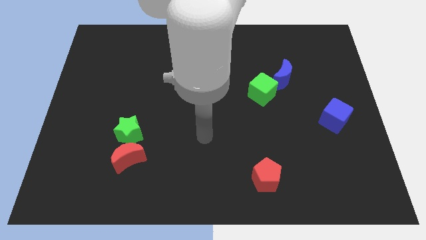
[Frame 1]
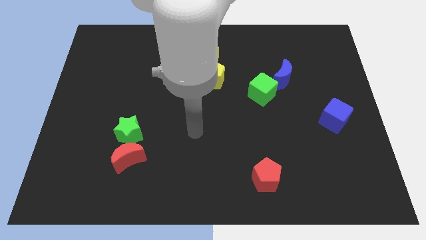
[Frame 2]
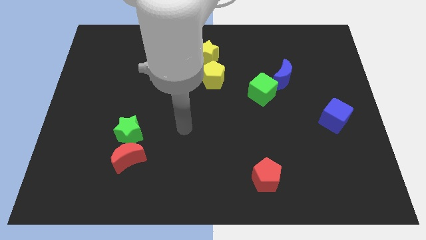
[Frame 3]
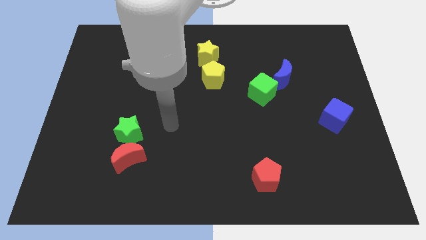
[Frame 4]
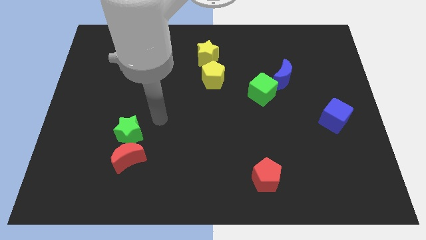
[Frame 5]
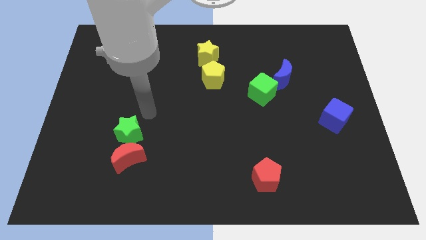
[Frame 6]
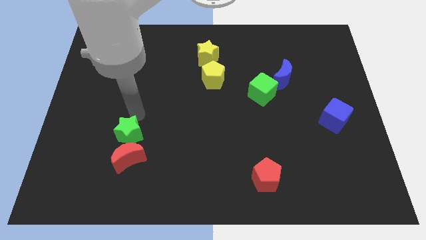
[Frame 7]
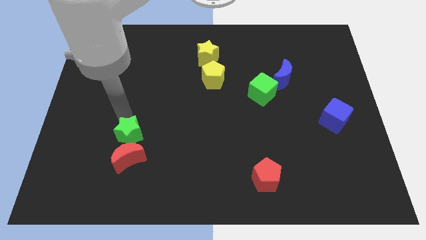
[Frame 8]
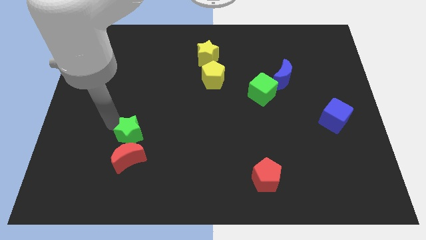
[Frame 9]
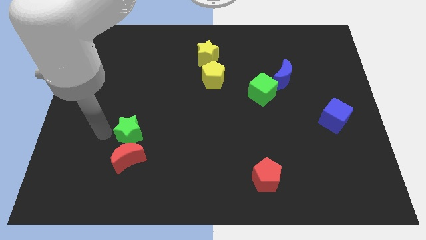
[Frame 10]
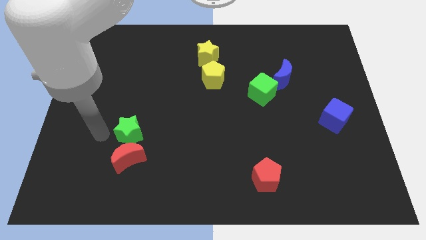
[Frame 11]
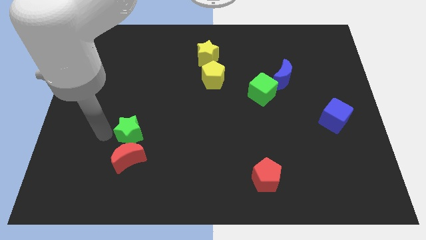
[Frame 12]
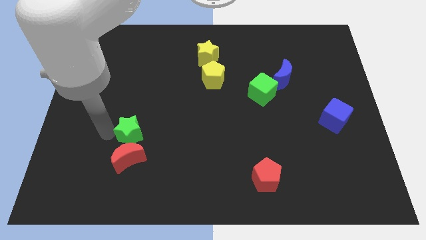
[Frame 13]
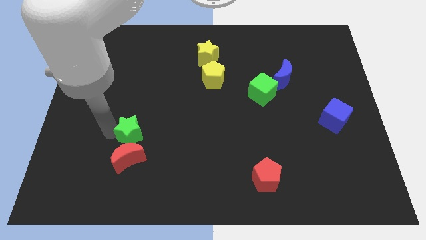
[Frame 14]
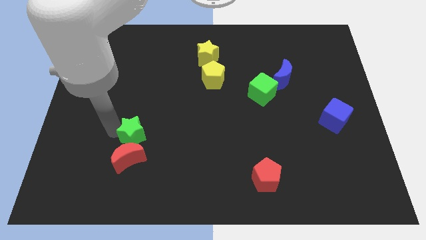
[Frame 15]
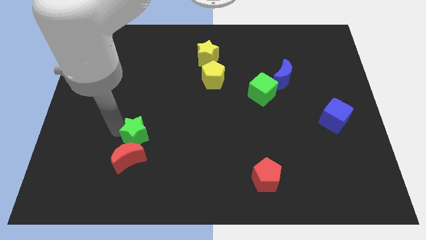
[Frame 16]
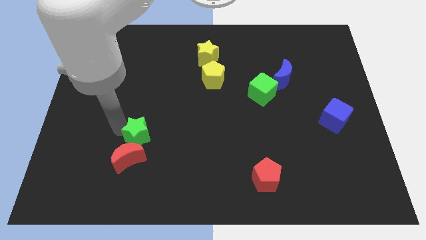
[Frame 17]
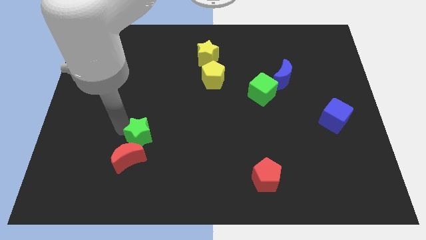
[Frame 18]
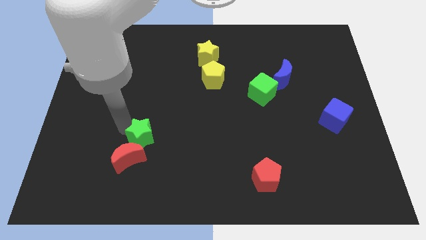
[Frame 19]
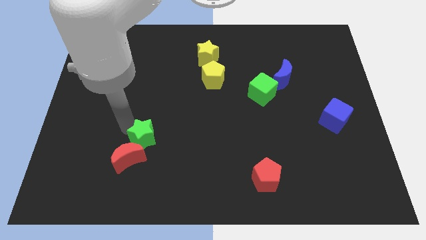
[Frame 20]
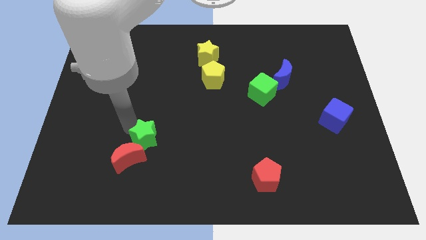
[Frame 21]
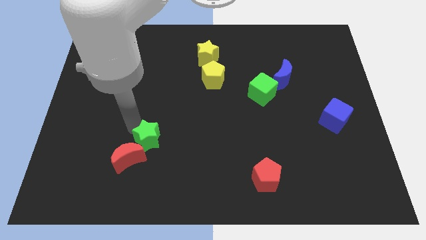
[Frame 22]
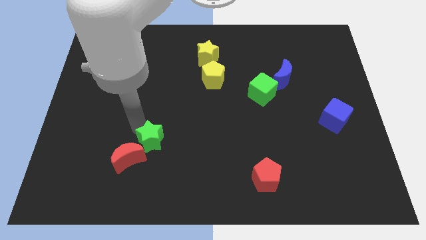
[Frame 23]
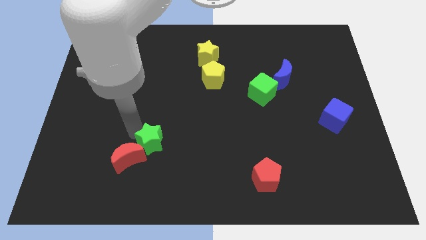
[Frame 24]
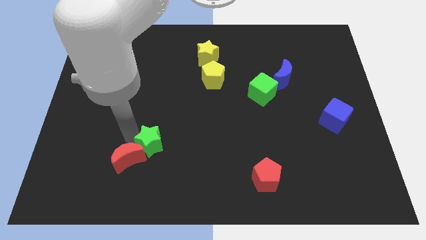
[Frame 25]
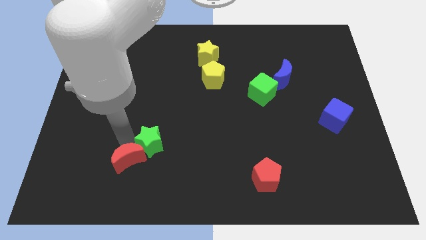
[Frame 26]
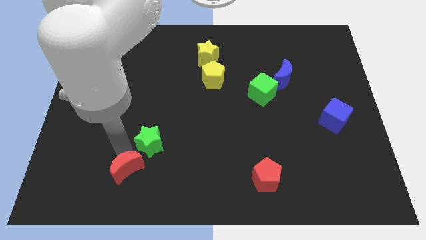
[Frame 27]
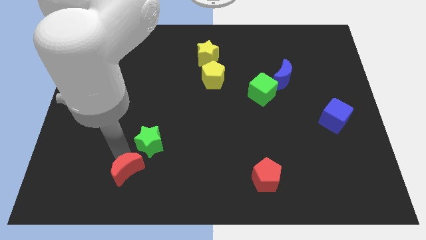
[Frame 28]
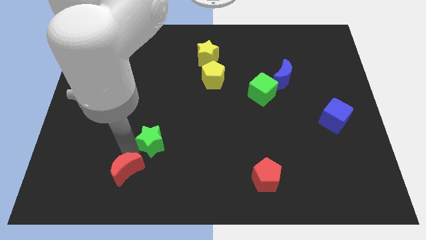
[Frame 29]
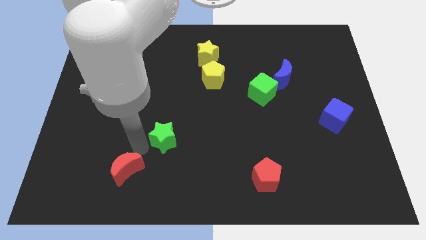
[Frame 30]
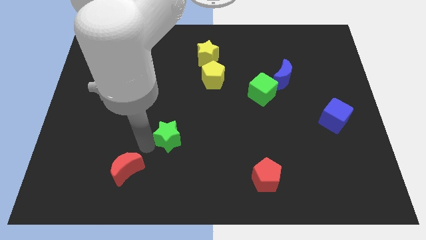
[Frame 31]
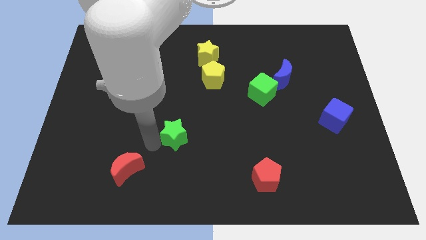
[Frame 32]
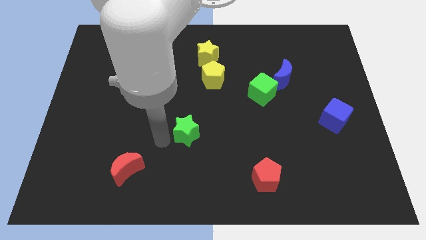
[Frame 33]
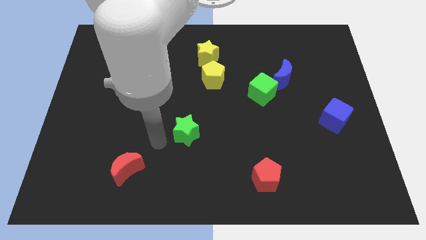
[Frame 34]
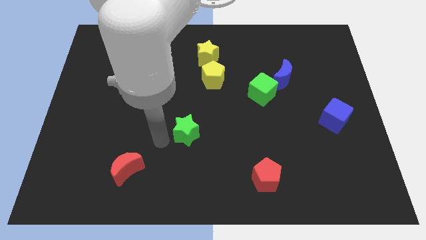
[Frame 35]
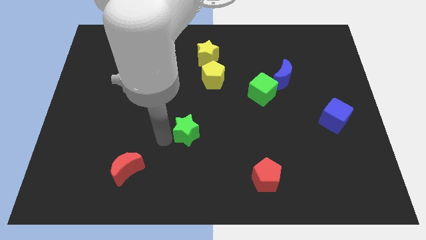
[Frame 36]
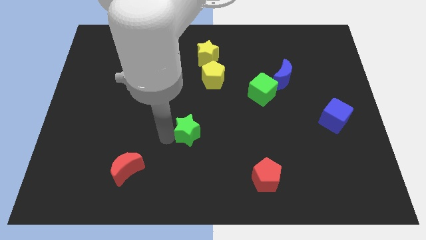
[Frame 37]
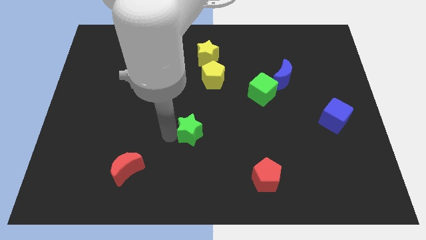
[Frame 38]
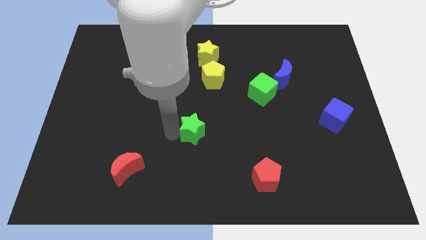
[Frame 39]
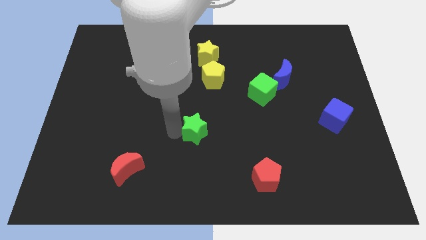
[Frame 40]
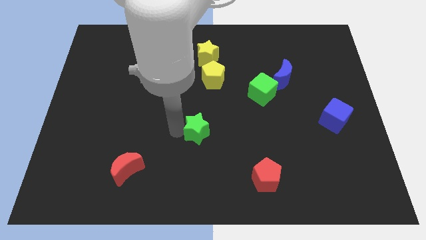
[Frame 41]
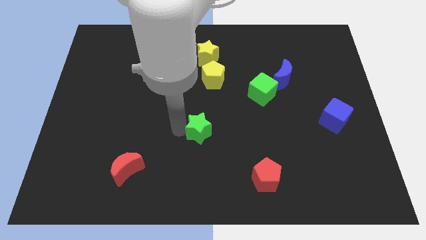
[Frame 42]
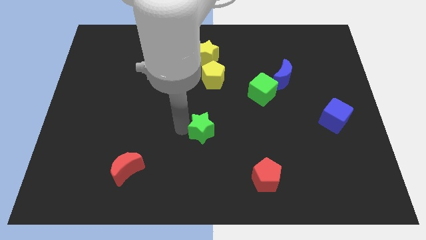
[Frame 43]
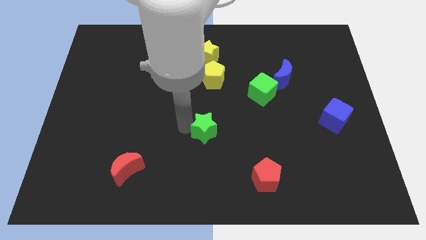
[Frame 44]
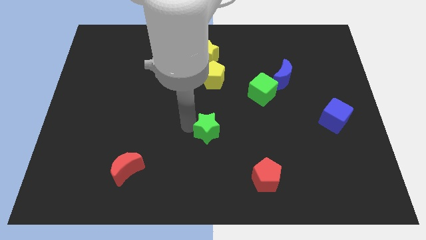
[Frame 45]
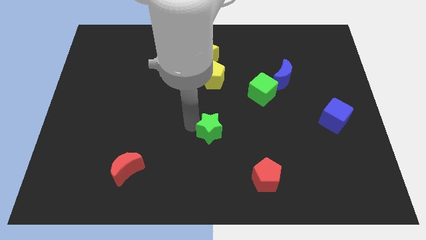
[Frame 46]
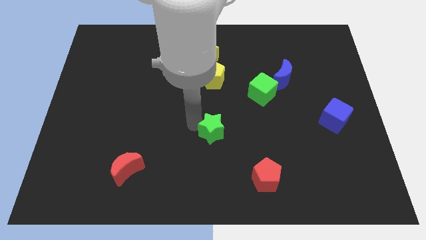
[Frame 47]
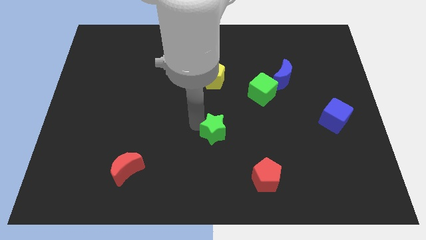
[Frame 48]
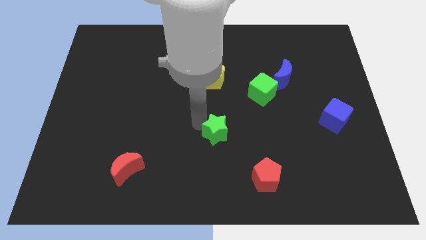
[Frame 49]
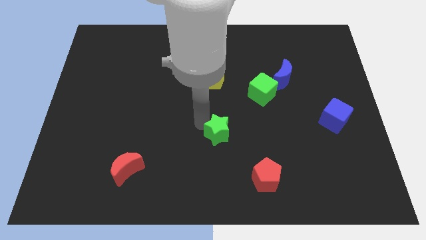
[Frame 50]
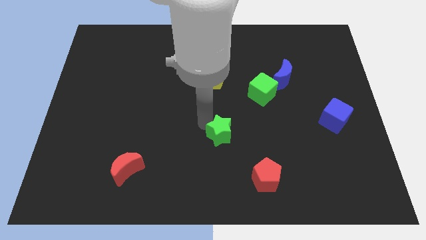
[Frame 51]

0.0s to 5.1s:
push the green star right

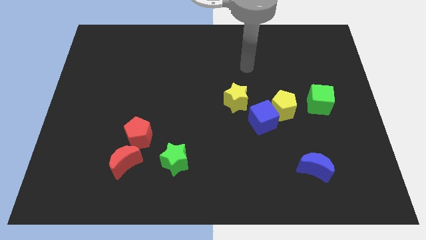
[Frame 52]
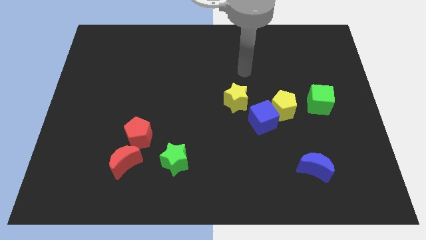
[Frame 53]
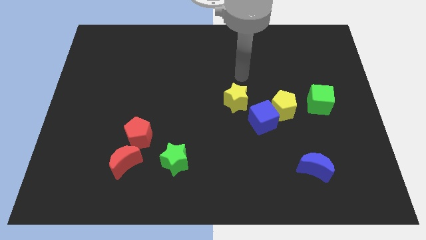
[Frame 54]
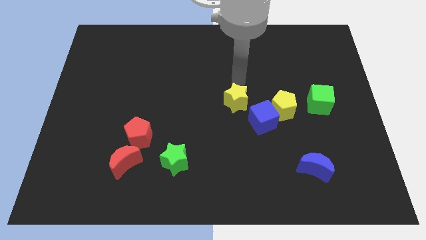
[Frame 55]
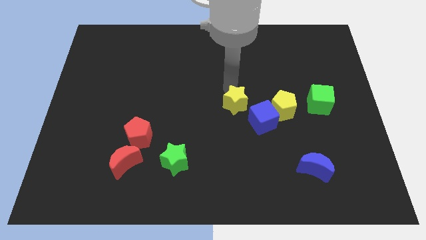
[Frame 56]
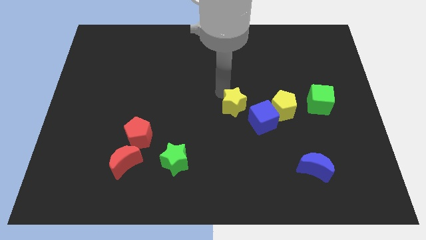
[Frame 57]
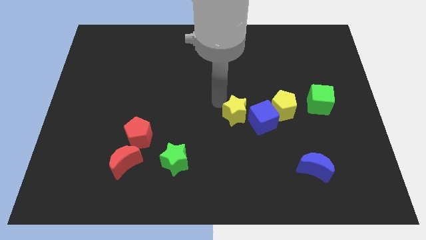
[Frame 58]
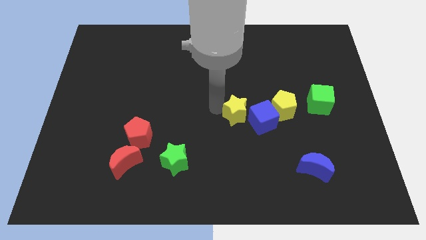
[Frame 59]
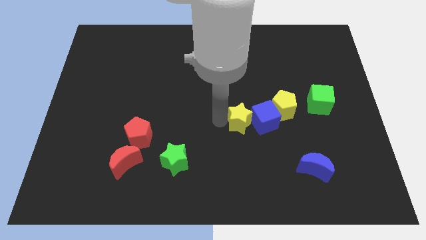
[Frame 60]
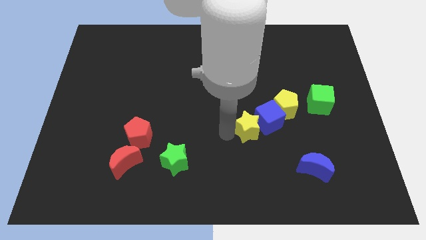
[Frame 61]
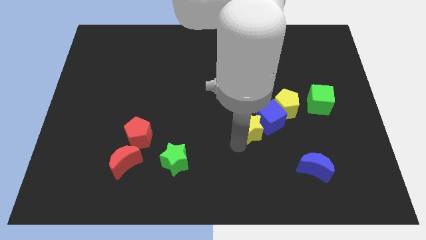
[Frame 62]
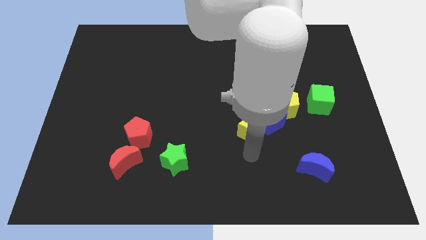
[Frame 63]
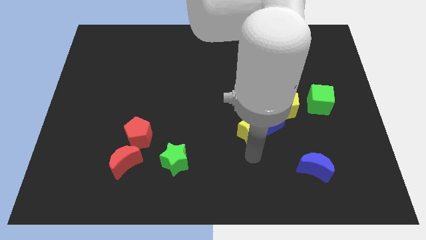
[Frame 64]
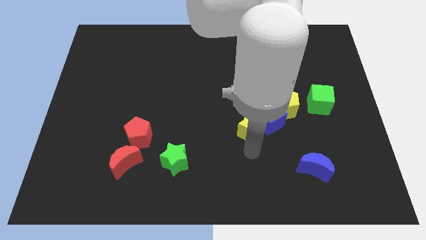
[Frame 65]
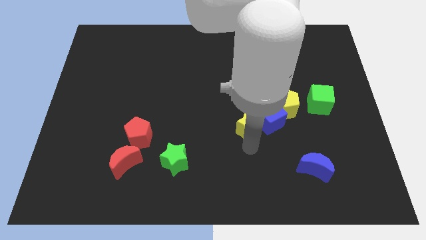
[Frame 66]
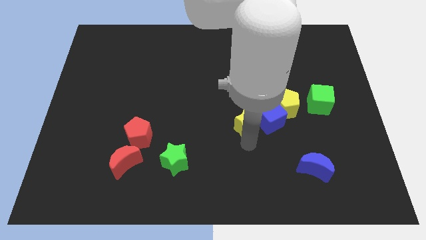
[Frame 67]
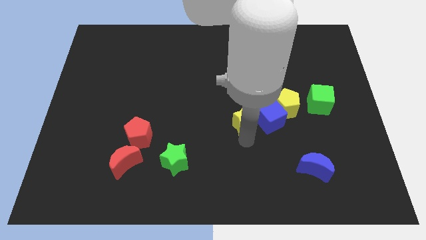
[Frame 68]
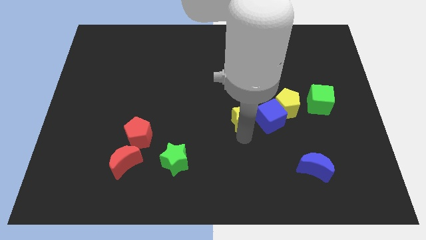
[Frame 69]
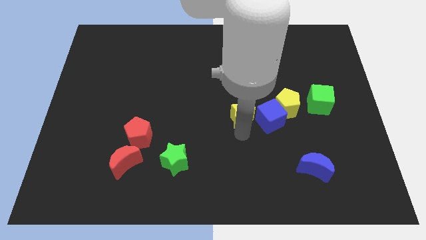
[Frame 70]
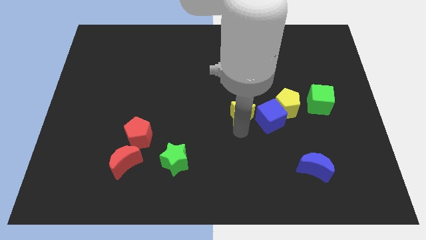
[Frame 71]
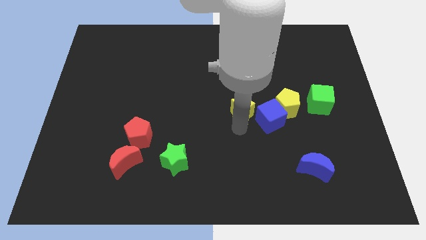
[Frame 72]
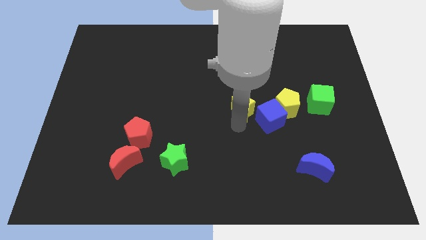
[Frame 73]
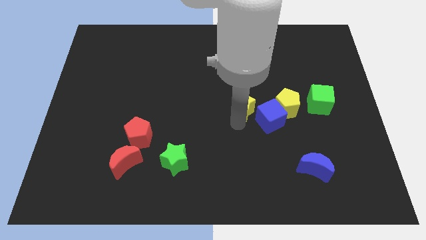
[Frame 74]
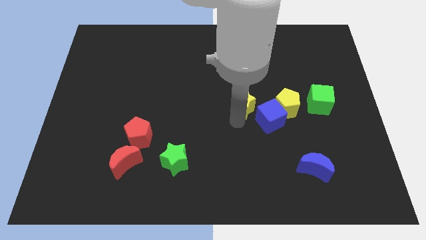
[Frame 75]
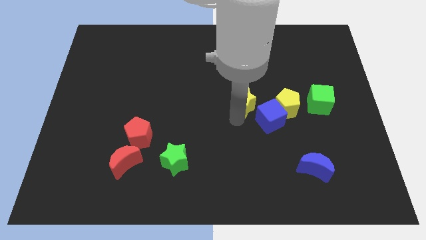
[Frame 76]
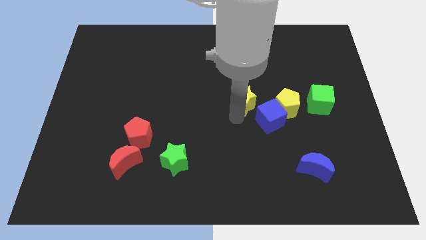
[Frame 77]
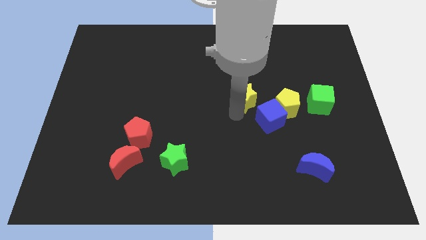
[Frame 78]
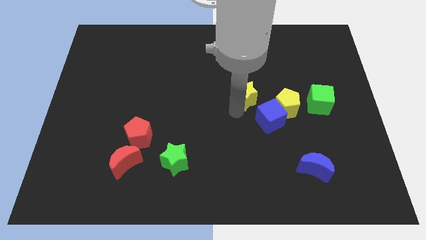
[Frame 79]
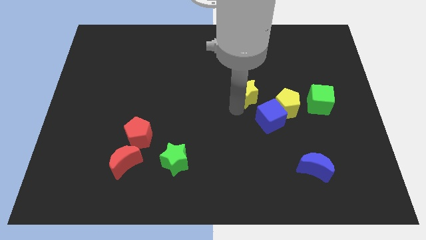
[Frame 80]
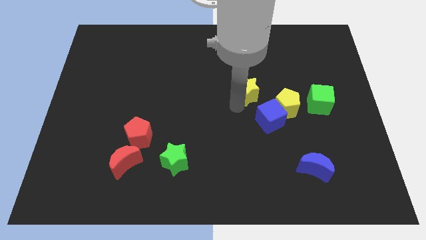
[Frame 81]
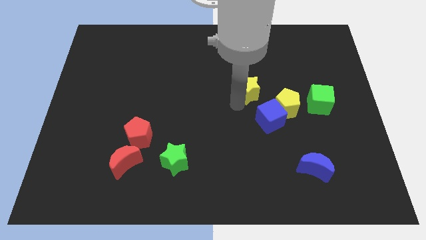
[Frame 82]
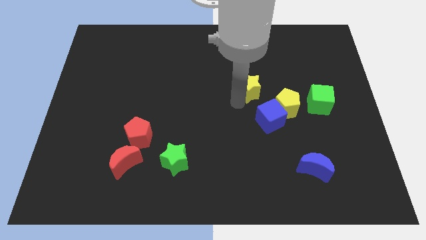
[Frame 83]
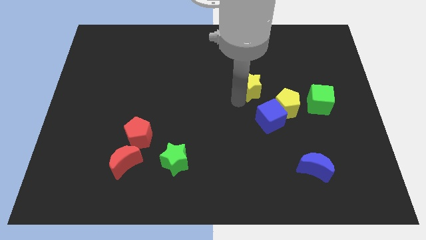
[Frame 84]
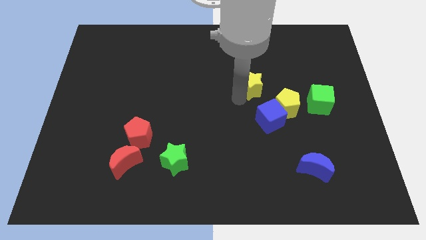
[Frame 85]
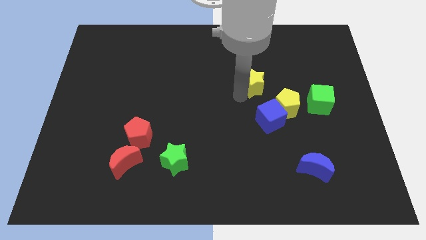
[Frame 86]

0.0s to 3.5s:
slide the yellow star up and then right a bit

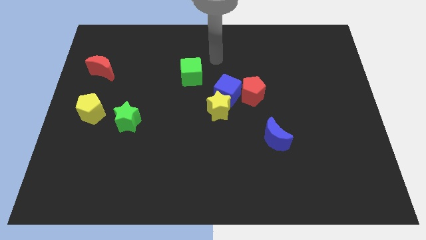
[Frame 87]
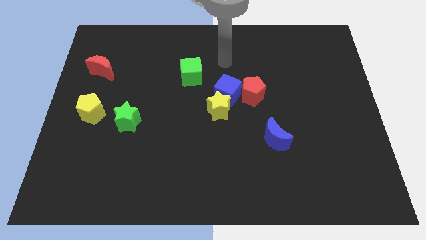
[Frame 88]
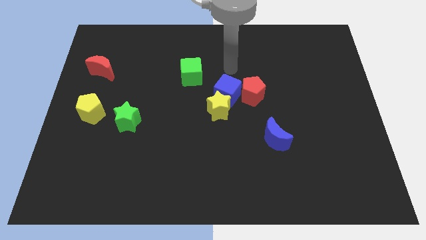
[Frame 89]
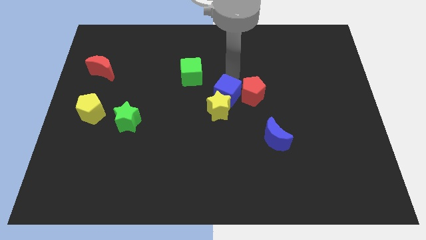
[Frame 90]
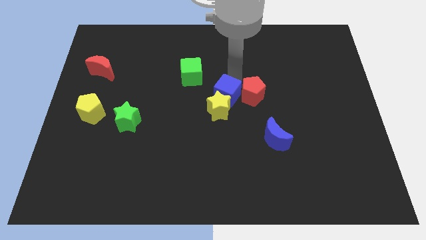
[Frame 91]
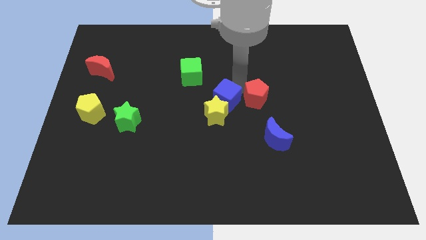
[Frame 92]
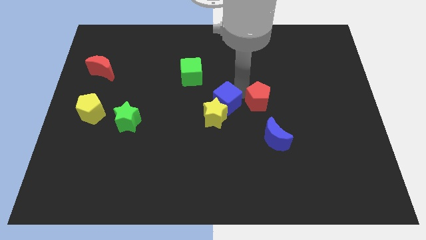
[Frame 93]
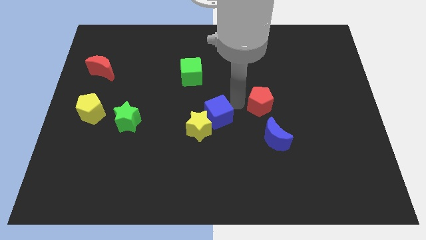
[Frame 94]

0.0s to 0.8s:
slightly slide the yellow star downwards and to the left
